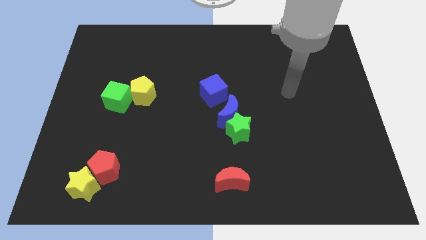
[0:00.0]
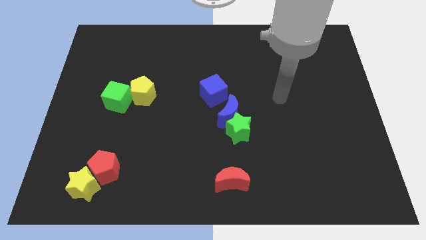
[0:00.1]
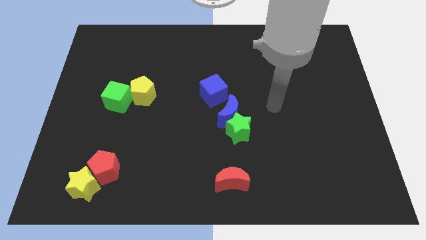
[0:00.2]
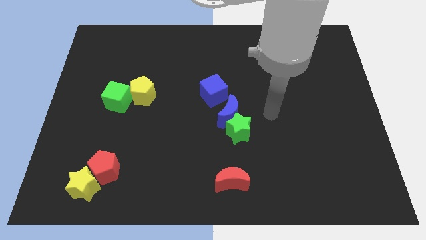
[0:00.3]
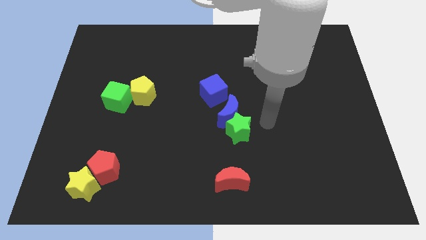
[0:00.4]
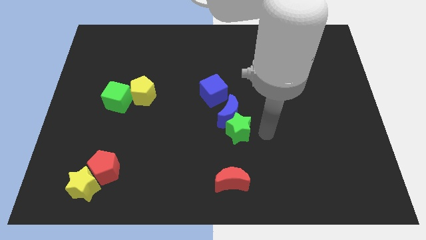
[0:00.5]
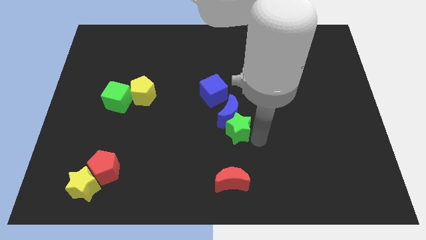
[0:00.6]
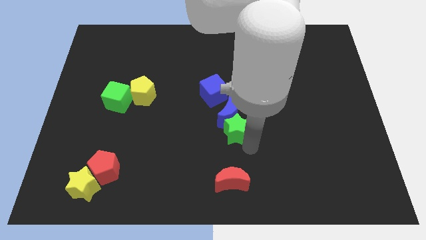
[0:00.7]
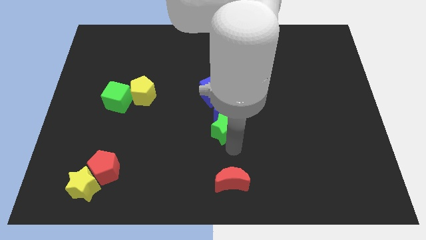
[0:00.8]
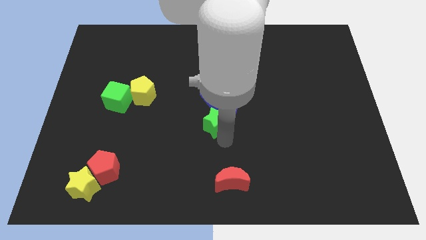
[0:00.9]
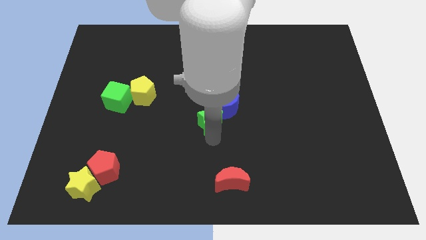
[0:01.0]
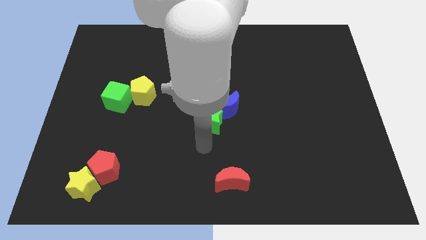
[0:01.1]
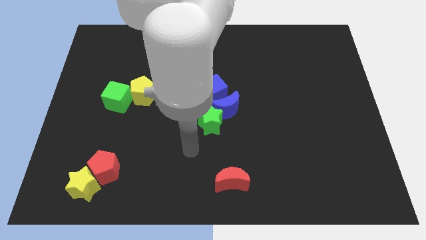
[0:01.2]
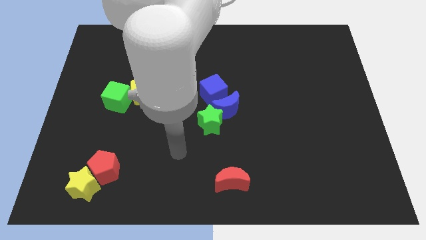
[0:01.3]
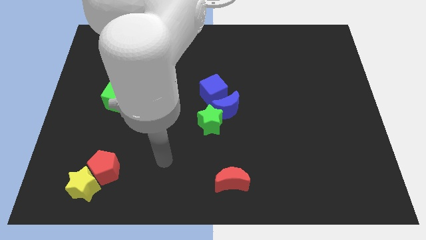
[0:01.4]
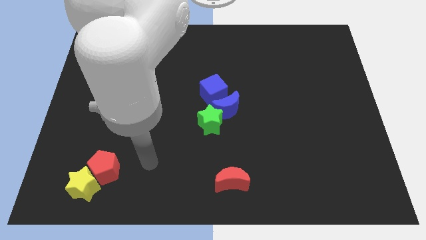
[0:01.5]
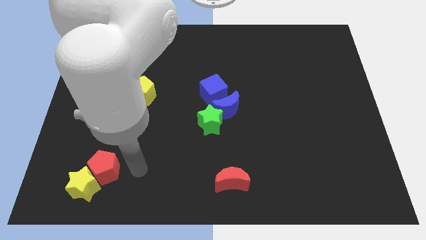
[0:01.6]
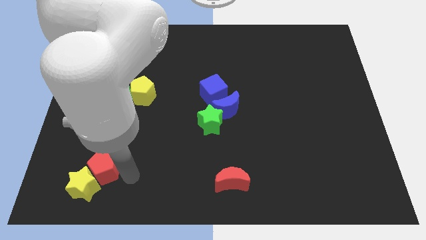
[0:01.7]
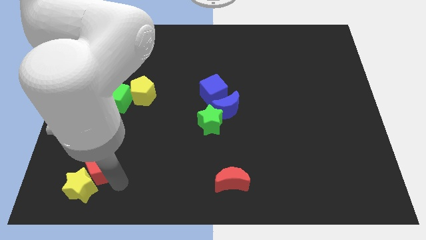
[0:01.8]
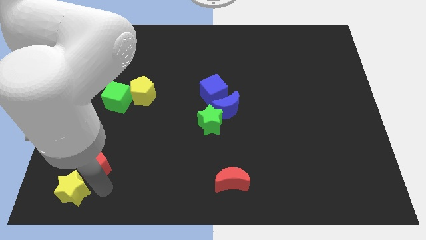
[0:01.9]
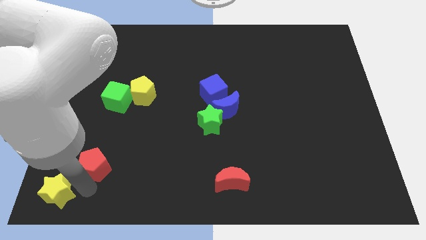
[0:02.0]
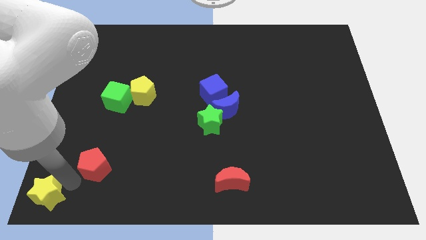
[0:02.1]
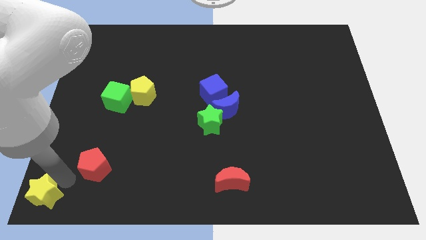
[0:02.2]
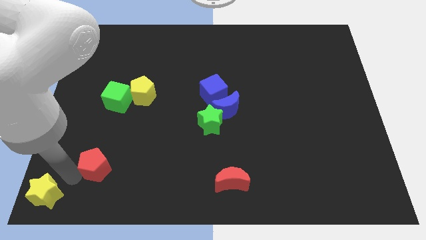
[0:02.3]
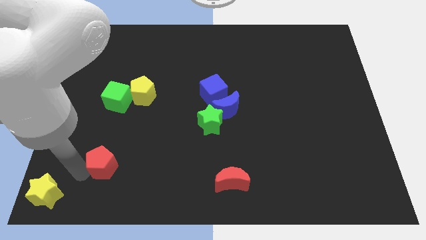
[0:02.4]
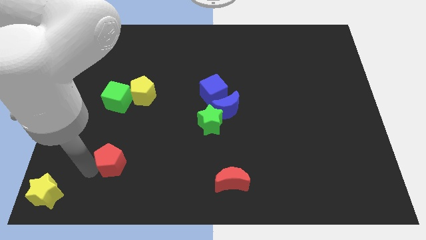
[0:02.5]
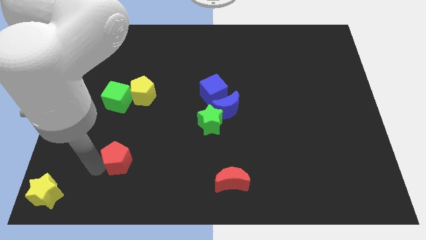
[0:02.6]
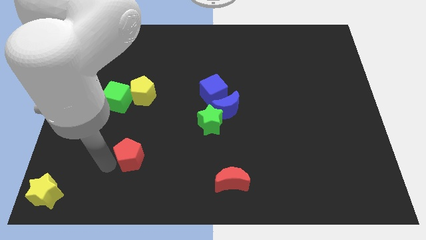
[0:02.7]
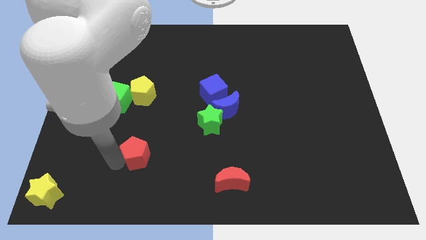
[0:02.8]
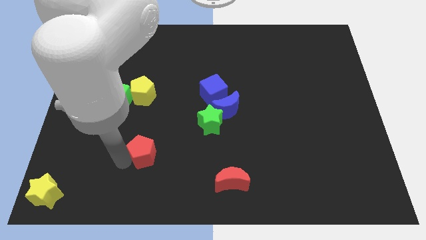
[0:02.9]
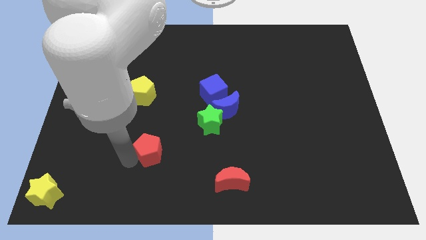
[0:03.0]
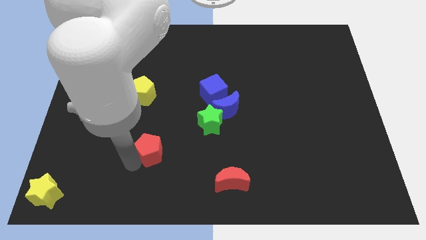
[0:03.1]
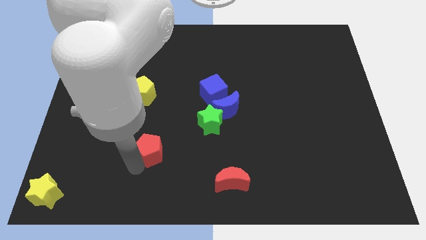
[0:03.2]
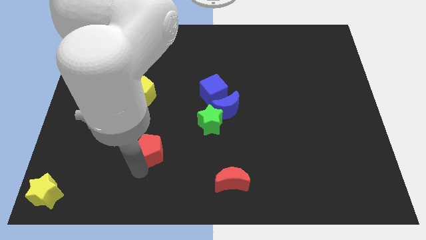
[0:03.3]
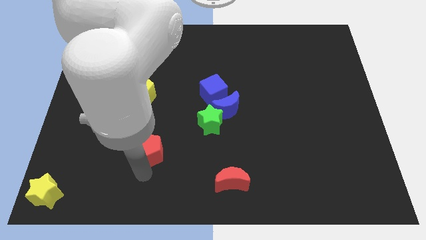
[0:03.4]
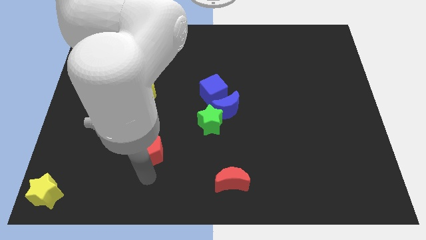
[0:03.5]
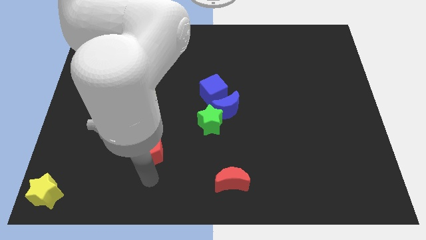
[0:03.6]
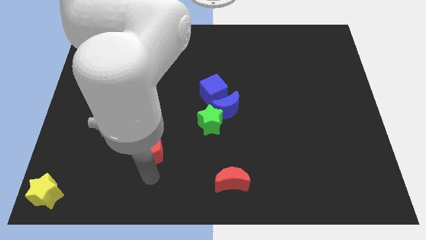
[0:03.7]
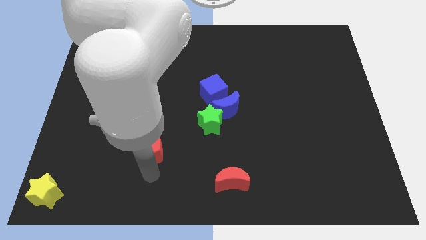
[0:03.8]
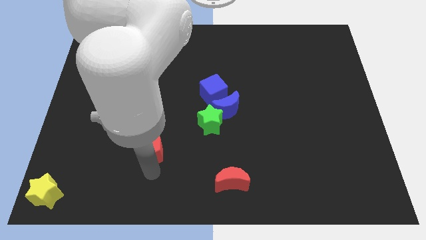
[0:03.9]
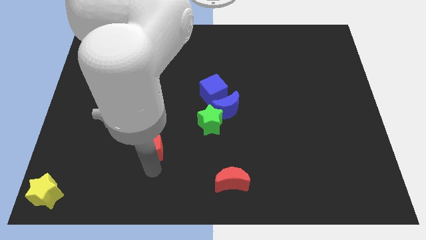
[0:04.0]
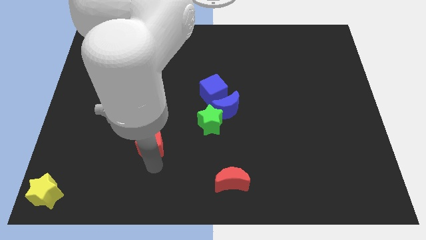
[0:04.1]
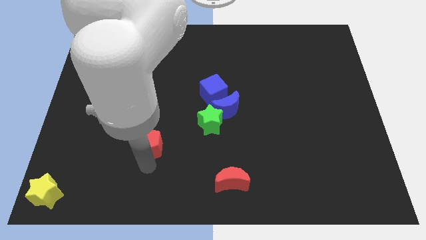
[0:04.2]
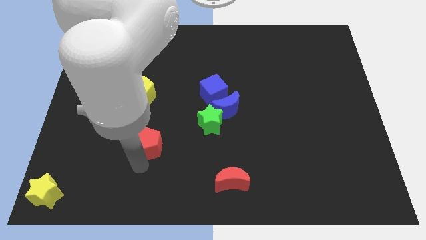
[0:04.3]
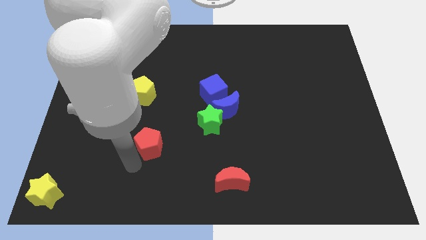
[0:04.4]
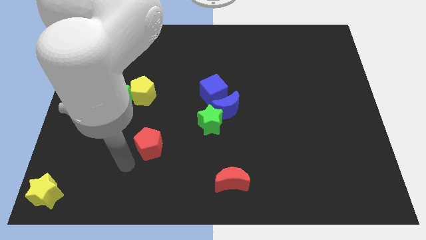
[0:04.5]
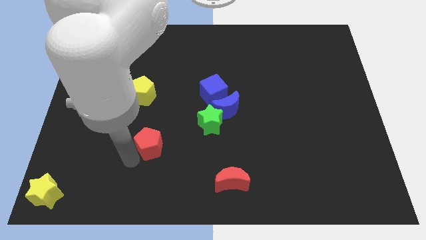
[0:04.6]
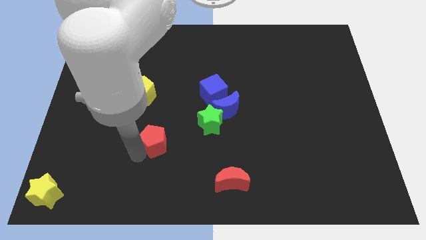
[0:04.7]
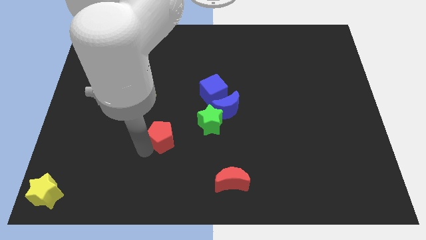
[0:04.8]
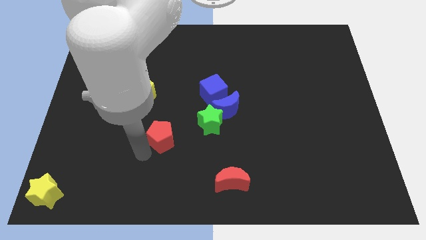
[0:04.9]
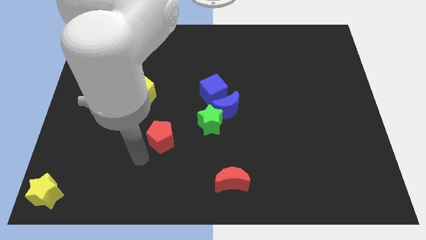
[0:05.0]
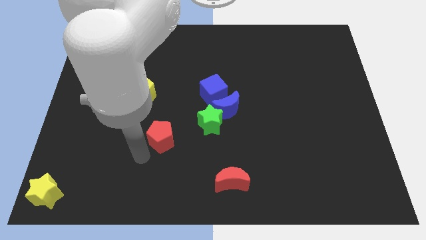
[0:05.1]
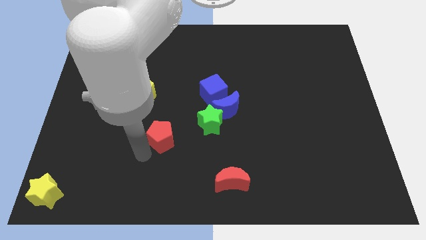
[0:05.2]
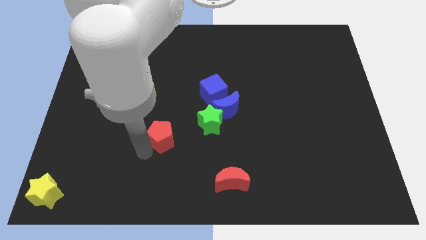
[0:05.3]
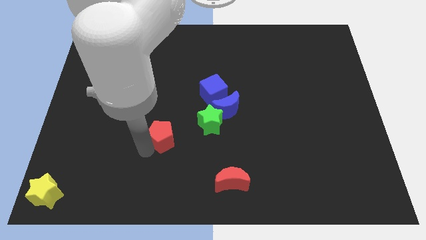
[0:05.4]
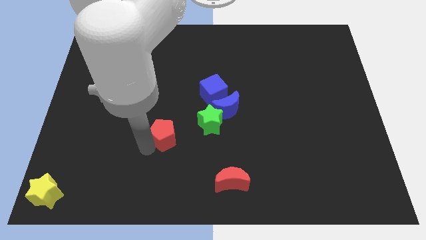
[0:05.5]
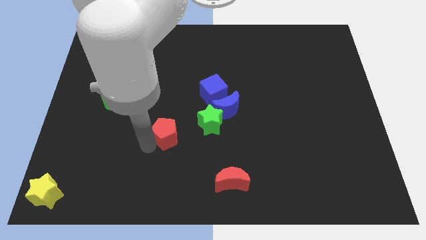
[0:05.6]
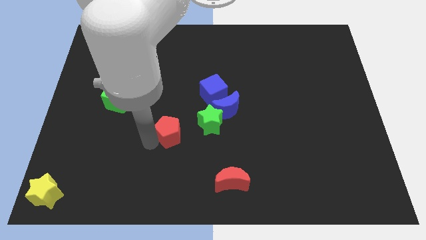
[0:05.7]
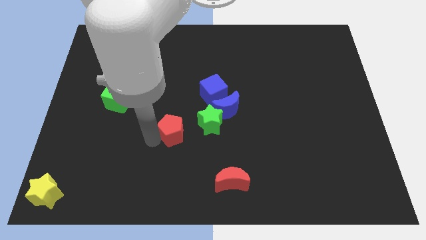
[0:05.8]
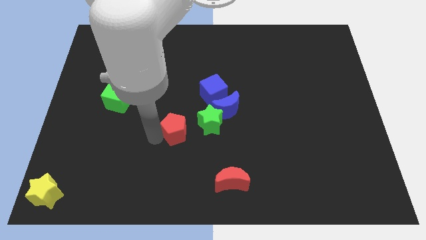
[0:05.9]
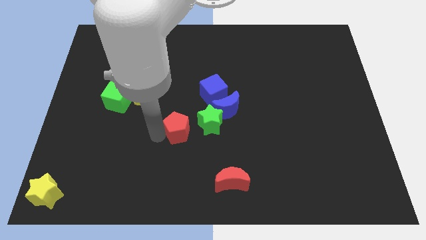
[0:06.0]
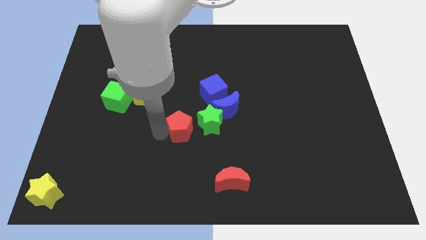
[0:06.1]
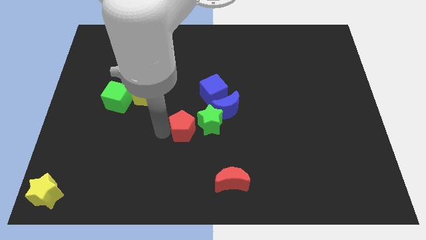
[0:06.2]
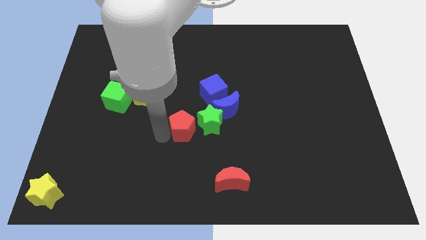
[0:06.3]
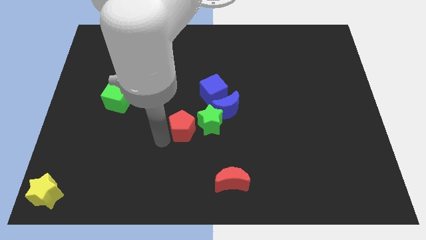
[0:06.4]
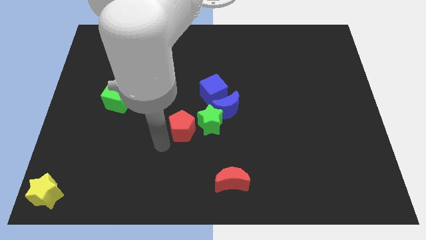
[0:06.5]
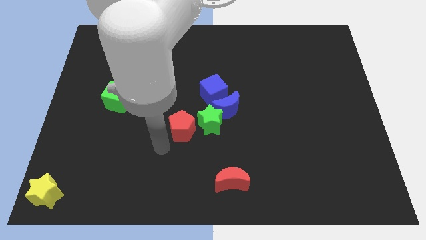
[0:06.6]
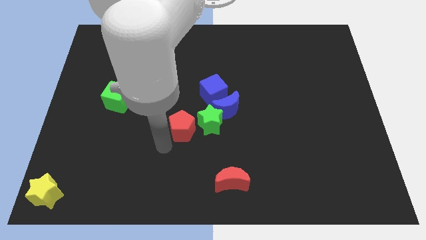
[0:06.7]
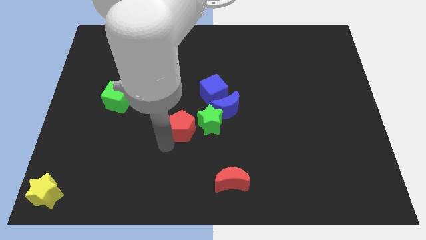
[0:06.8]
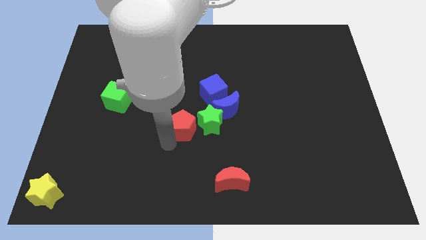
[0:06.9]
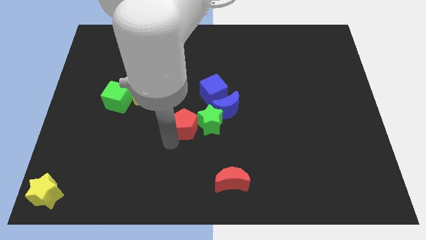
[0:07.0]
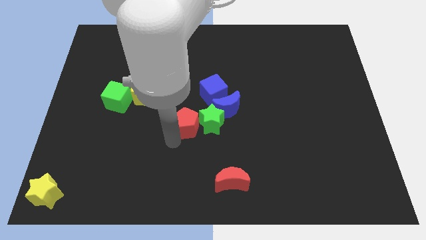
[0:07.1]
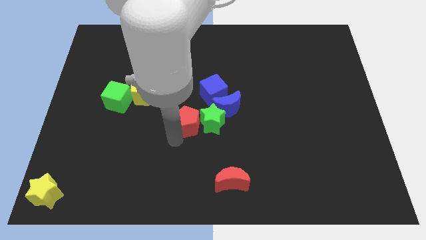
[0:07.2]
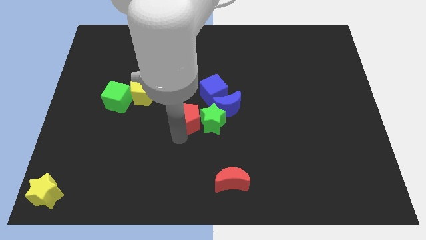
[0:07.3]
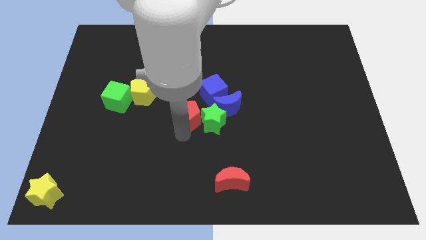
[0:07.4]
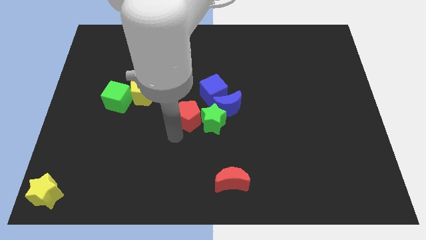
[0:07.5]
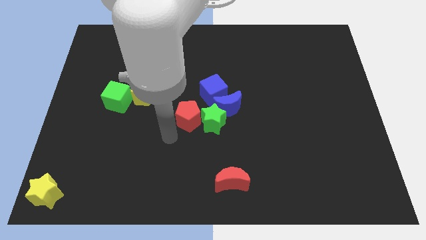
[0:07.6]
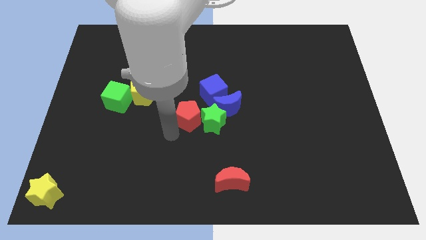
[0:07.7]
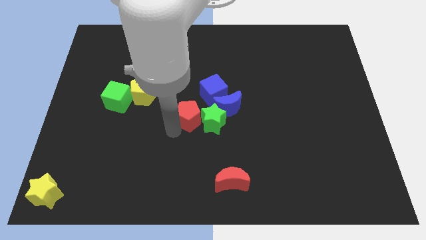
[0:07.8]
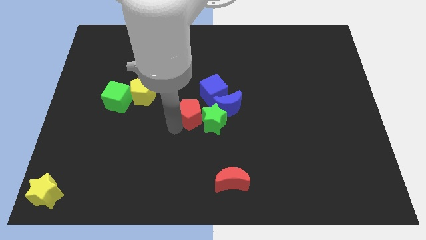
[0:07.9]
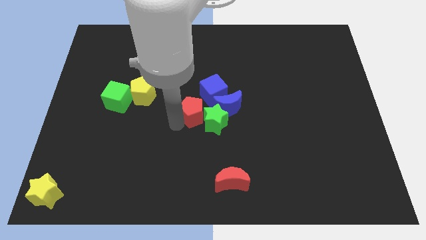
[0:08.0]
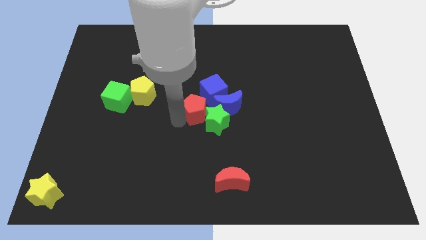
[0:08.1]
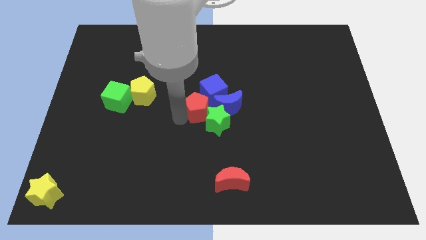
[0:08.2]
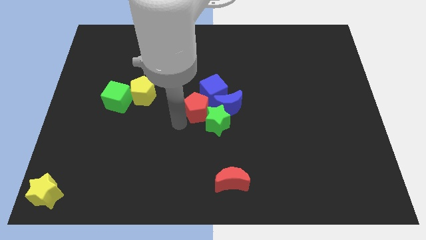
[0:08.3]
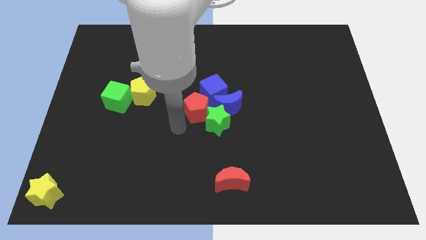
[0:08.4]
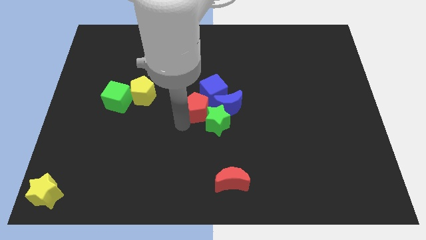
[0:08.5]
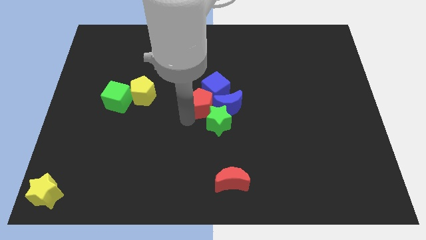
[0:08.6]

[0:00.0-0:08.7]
put the red pentagon towards the blue cube
